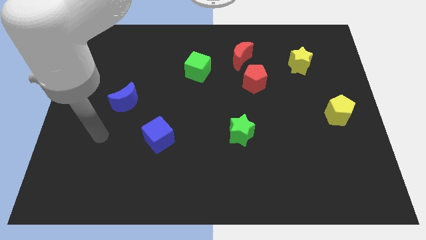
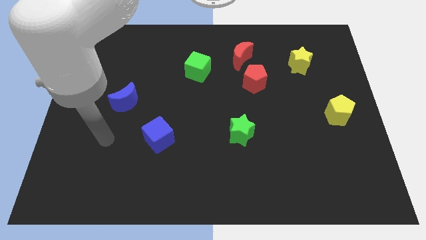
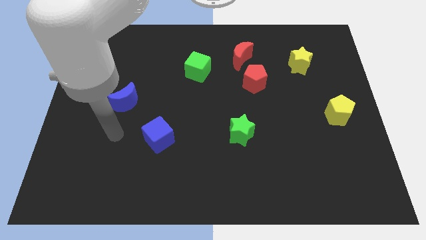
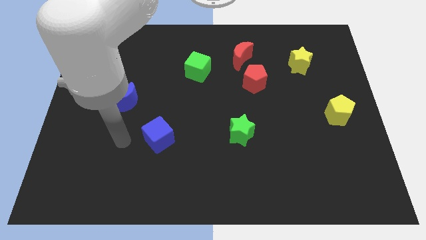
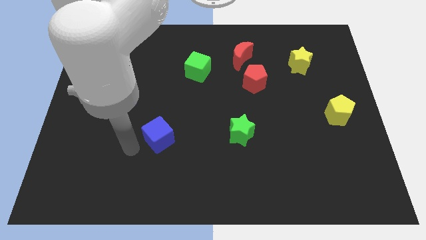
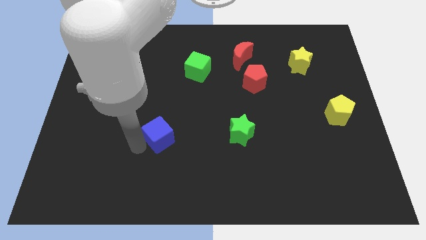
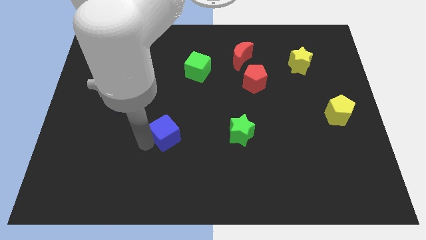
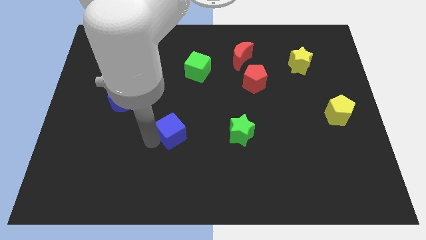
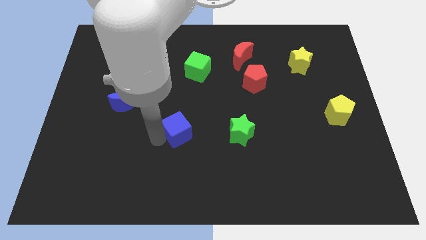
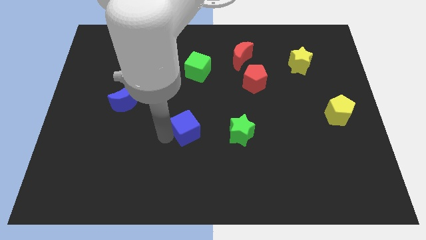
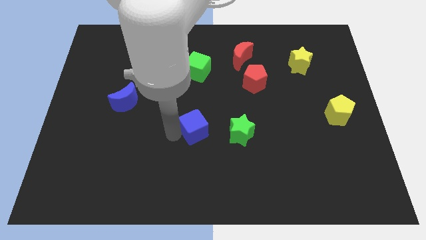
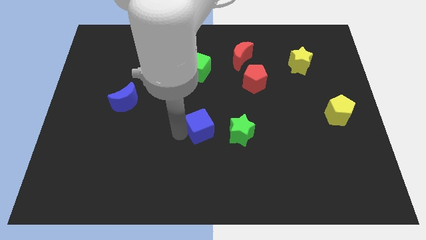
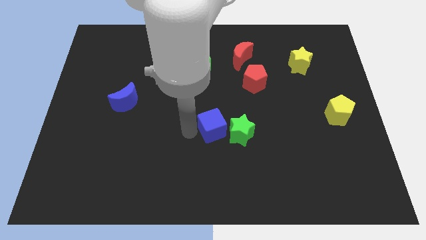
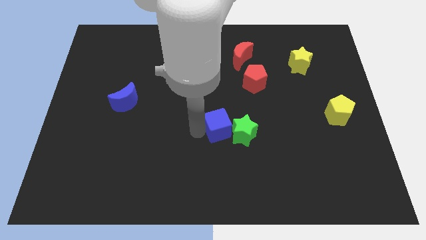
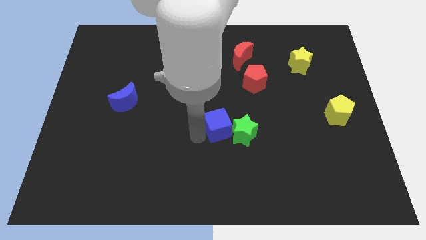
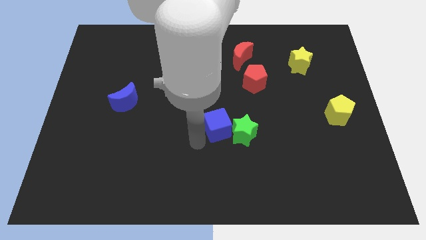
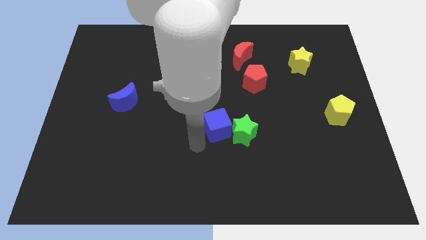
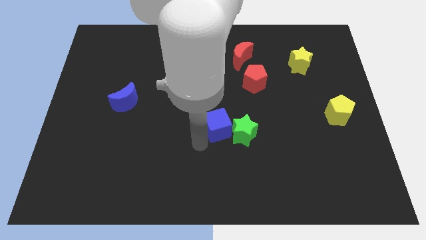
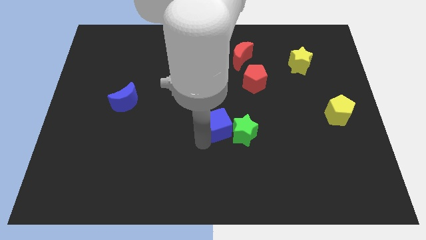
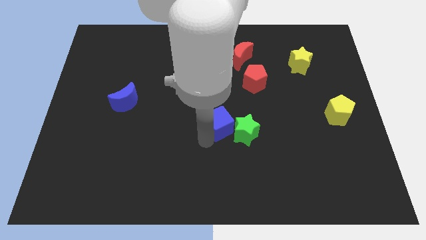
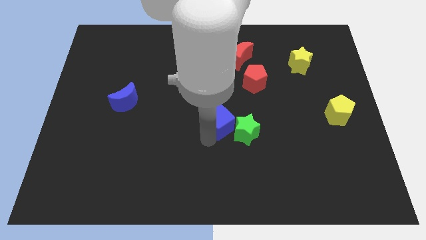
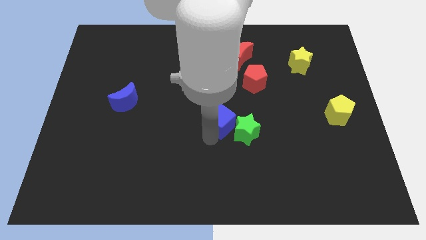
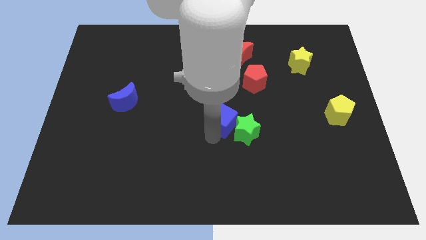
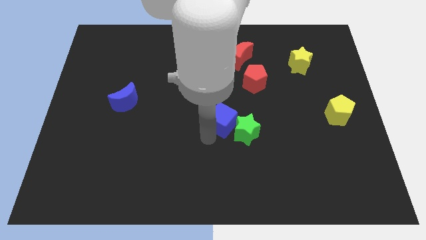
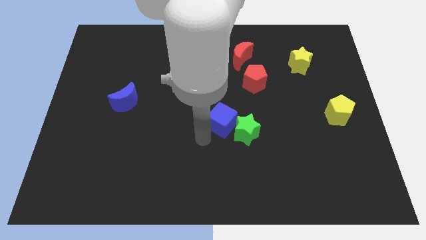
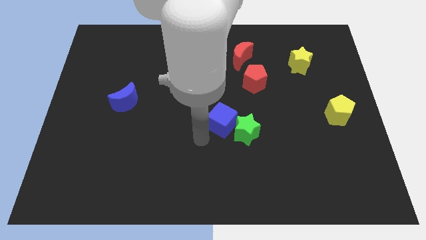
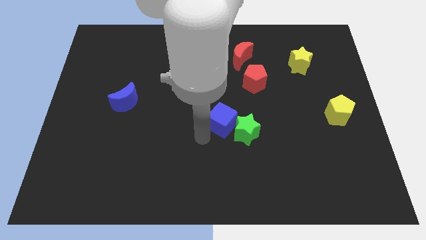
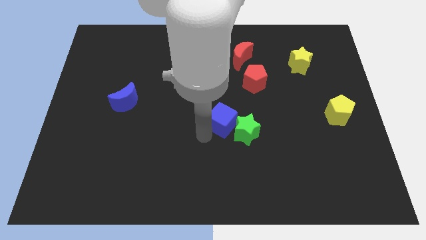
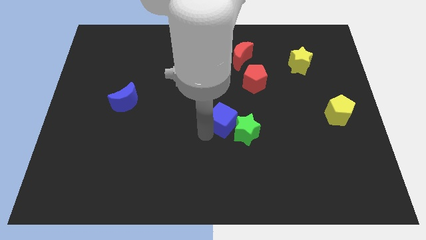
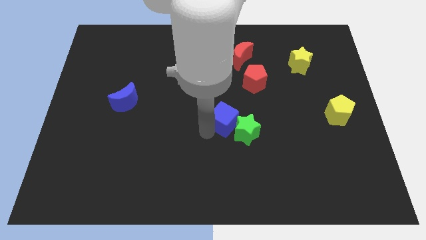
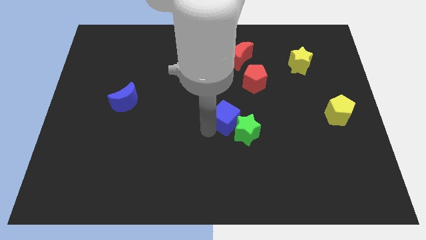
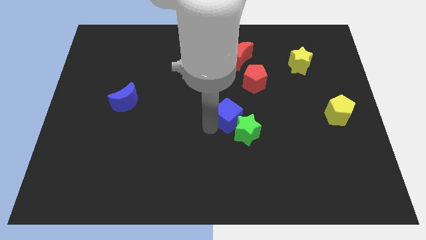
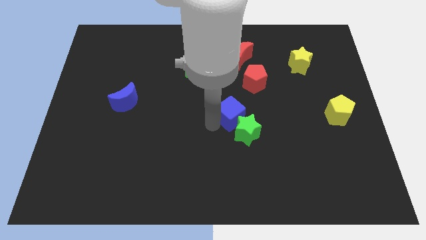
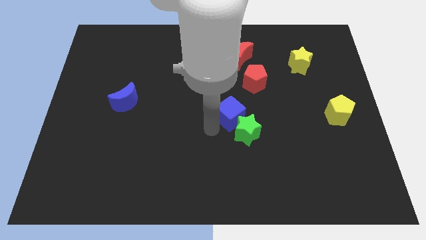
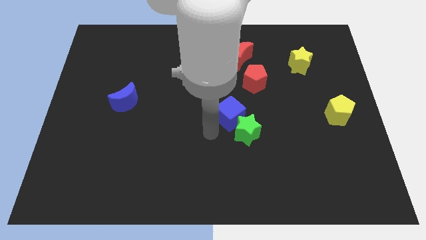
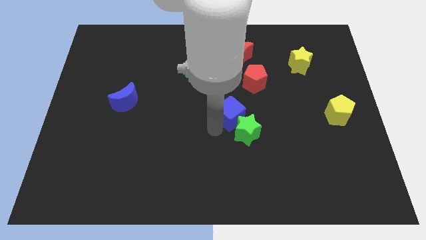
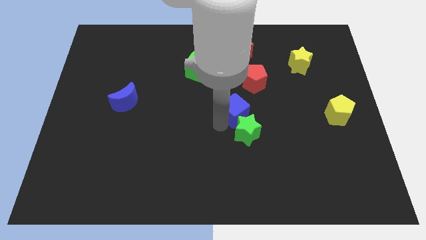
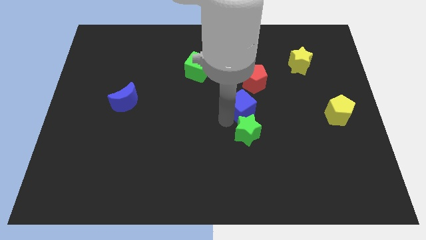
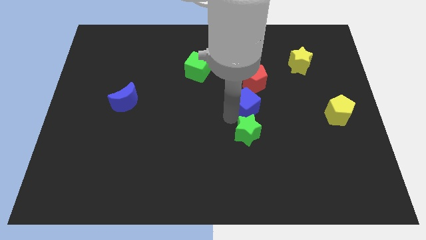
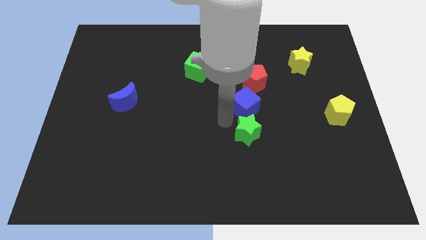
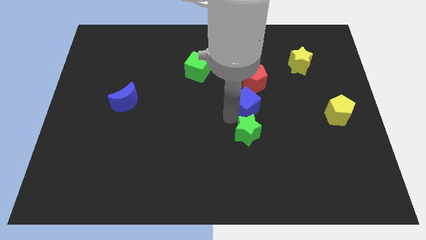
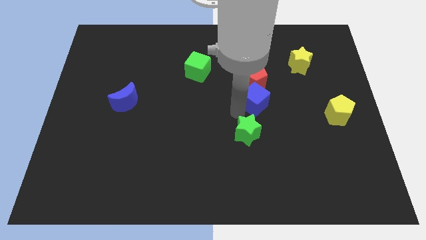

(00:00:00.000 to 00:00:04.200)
move the blue cube upwards and then to the right

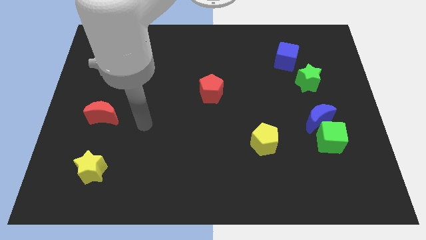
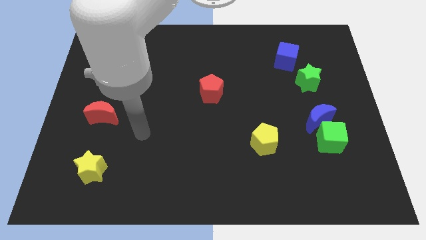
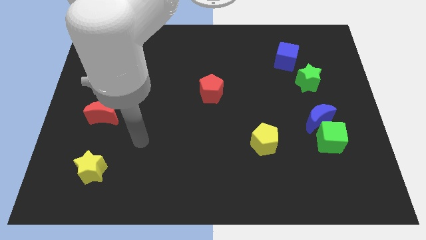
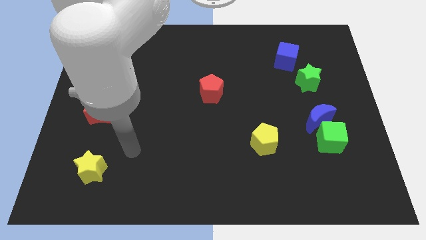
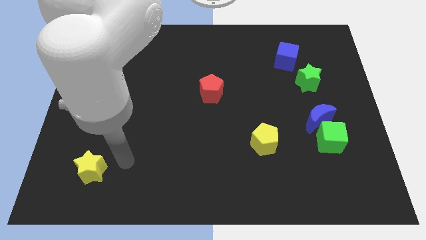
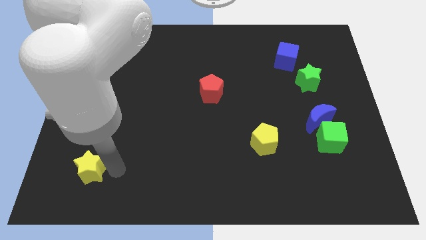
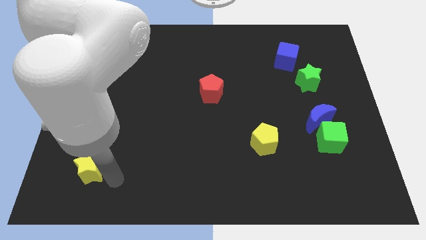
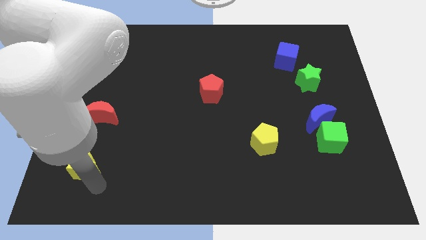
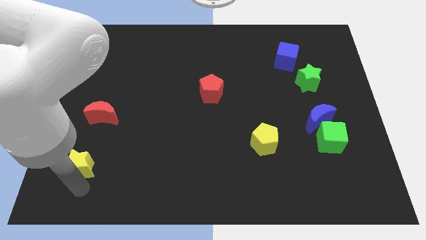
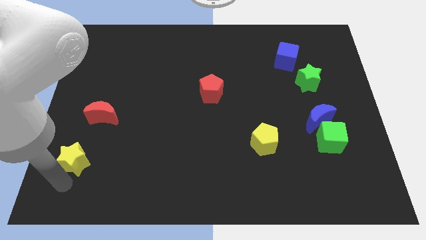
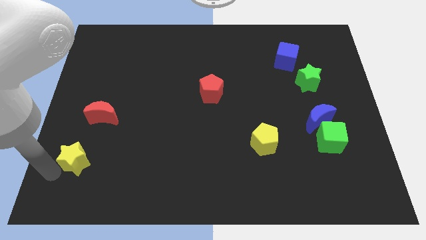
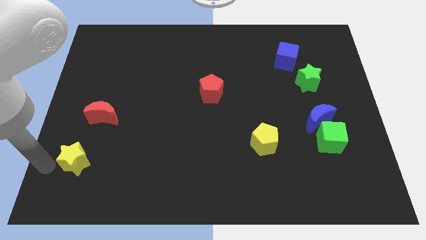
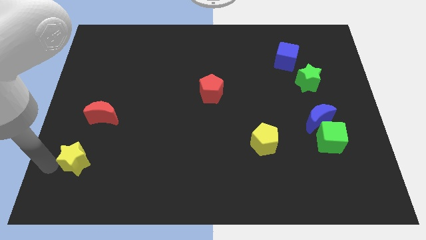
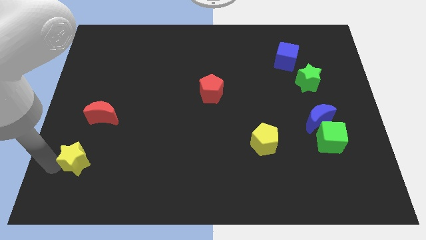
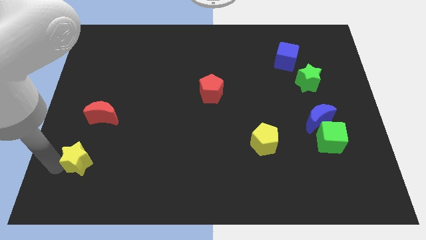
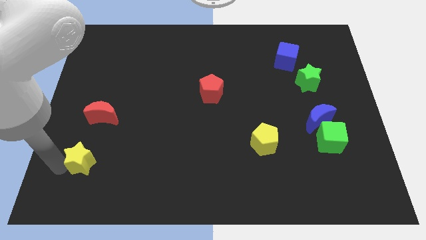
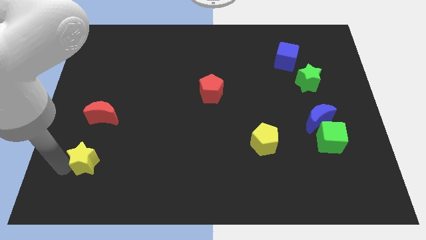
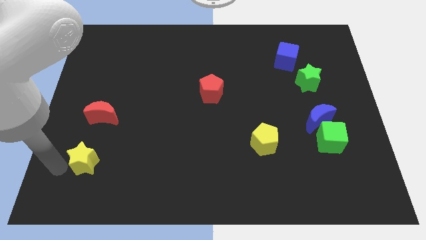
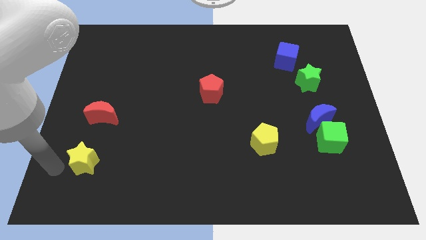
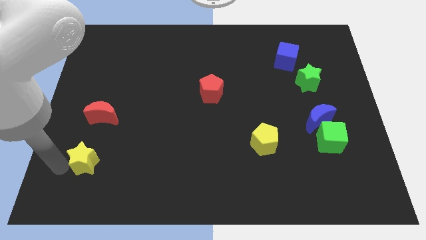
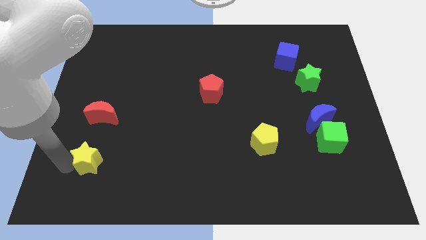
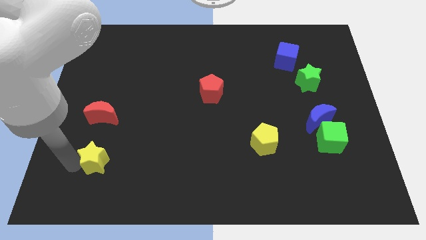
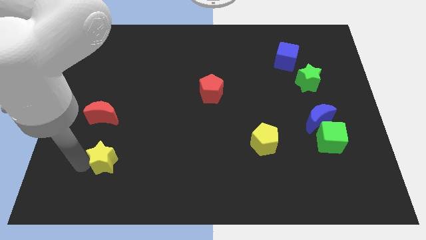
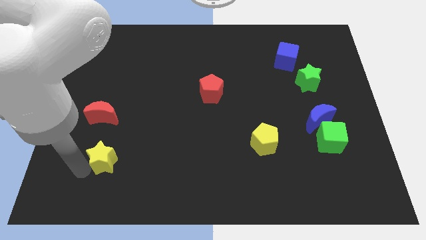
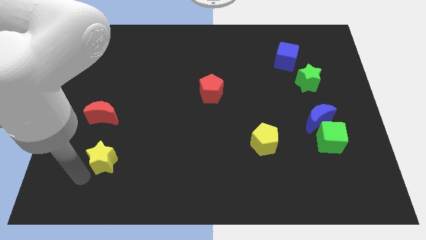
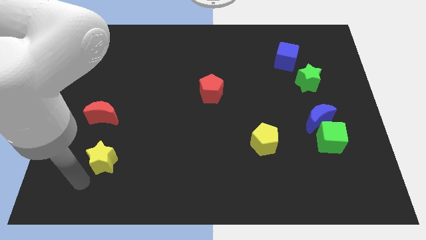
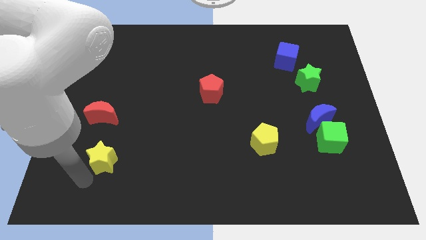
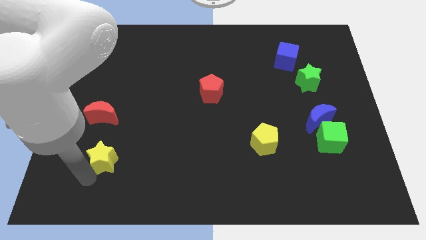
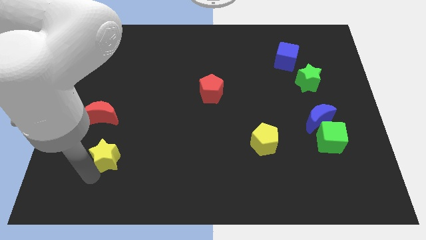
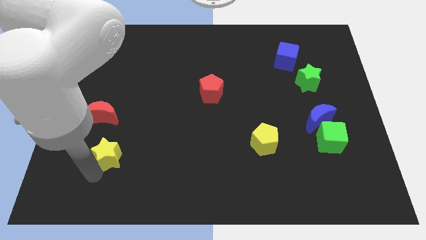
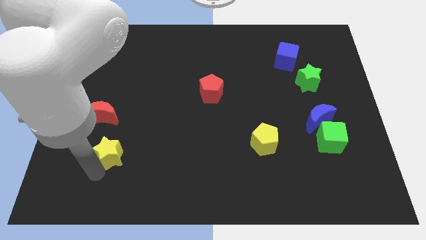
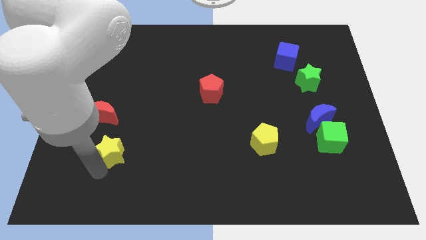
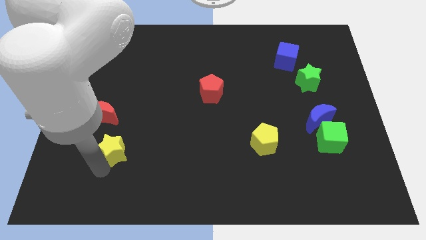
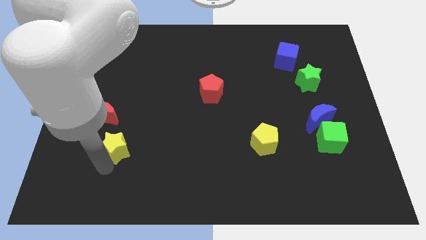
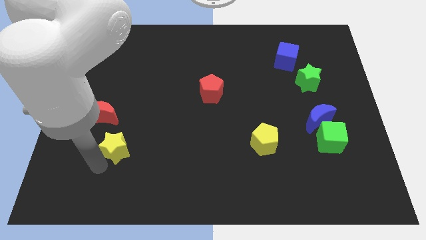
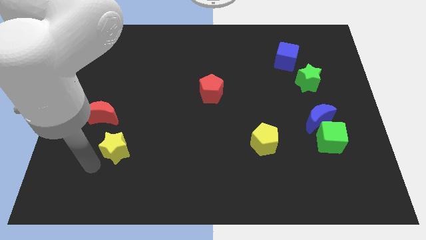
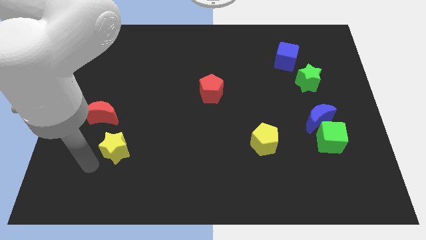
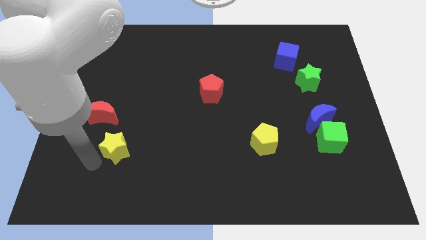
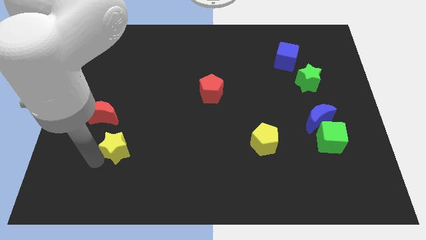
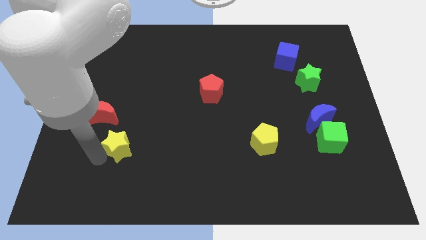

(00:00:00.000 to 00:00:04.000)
move the yellow star upwards and right diagonally a little

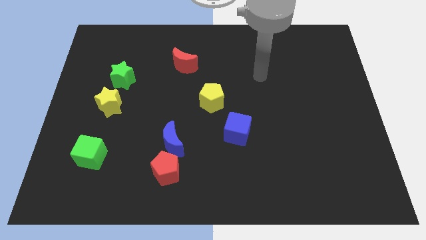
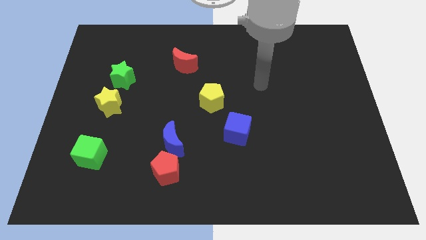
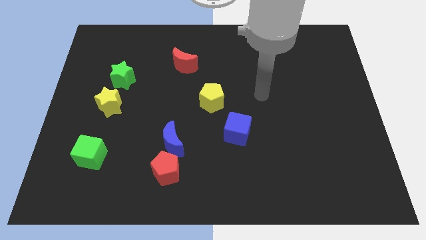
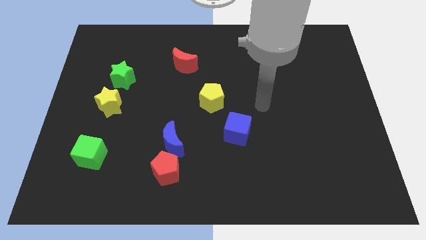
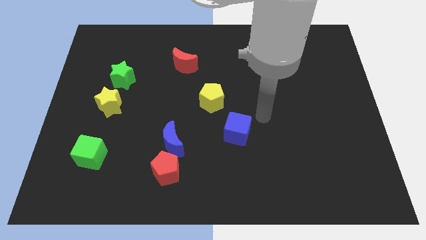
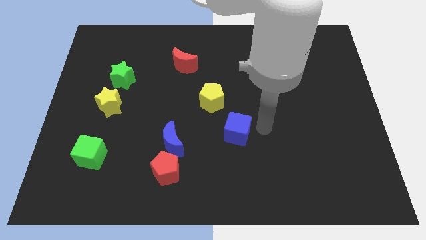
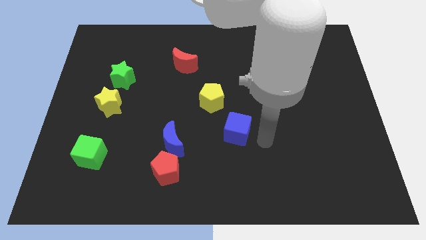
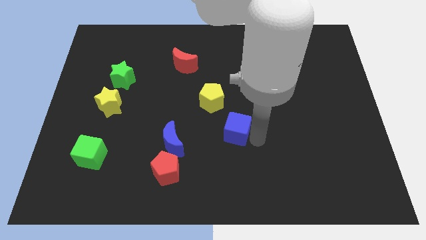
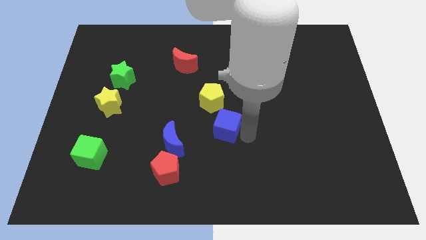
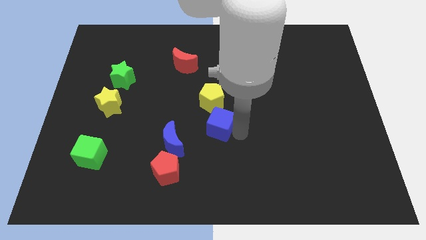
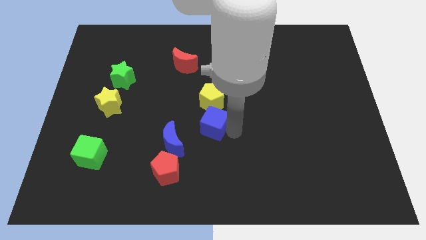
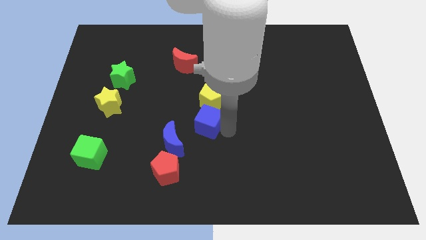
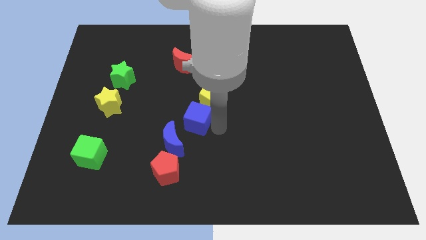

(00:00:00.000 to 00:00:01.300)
move the blue cube somewhat to the left
